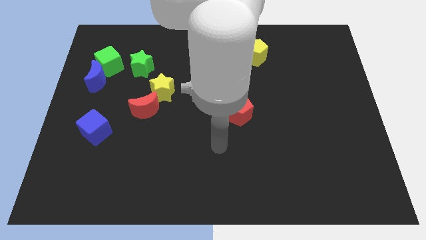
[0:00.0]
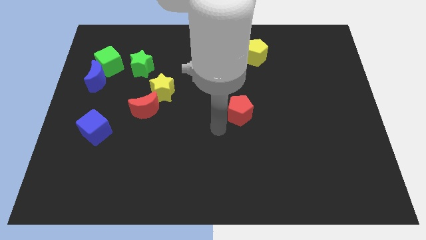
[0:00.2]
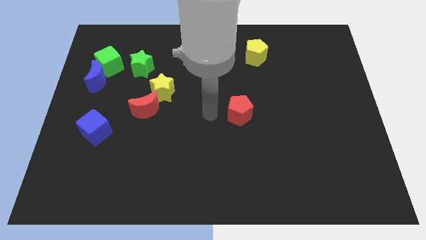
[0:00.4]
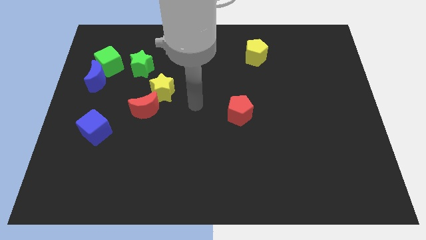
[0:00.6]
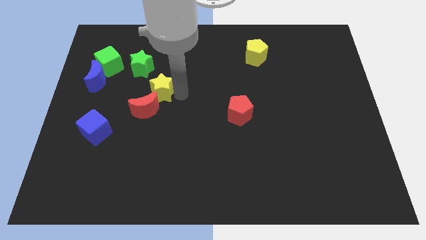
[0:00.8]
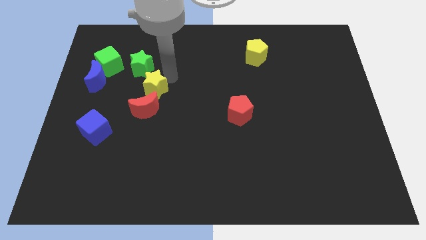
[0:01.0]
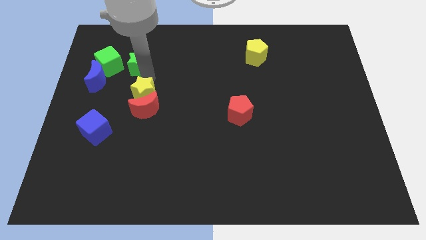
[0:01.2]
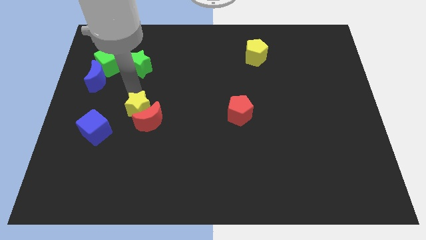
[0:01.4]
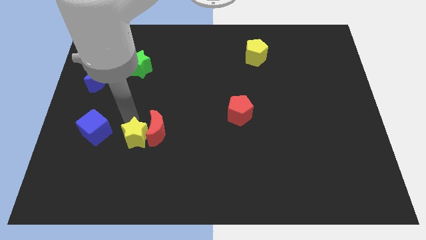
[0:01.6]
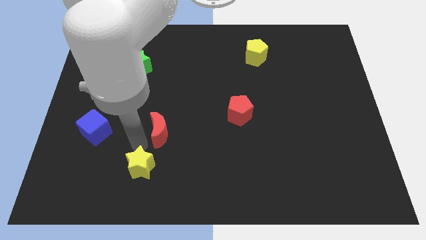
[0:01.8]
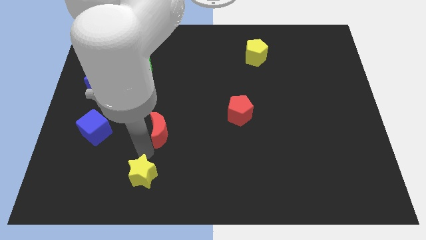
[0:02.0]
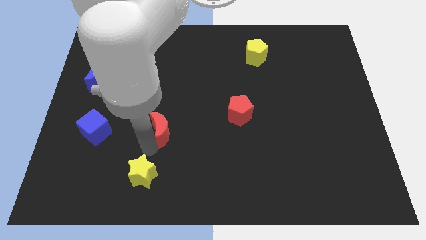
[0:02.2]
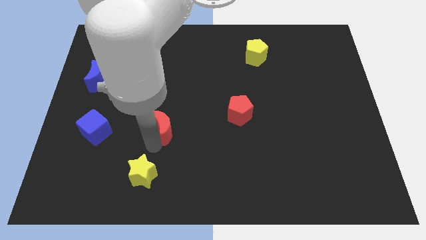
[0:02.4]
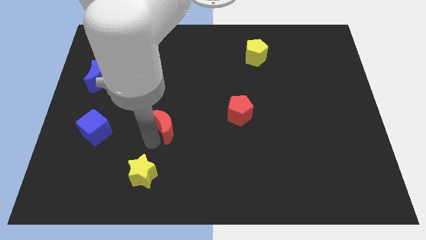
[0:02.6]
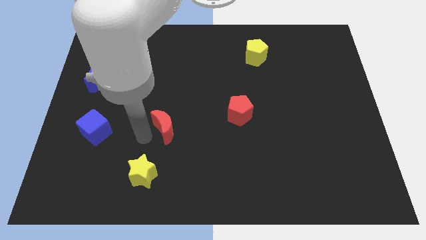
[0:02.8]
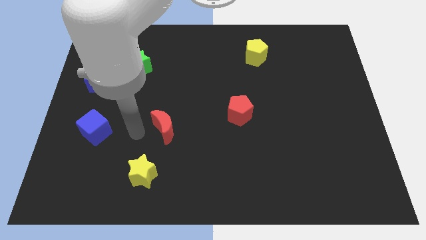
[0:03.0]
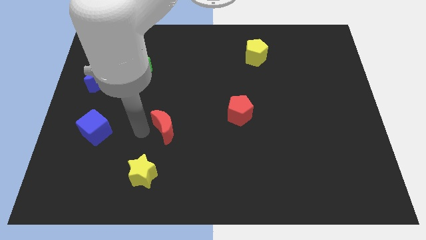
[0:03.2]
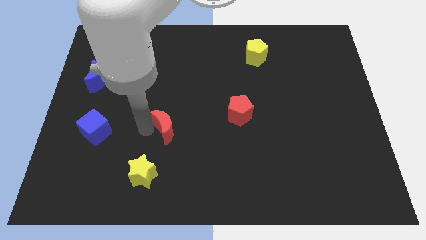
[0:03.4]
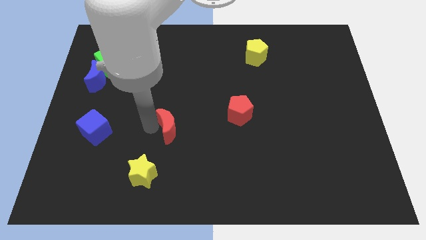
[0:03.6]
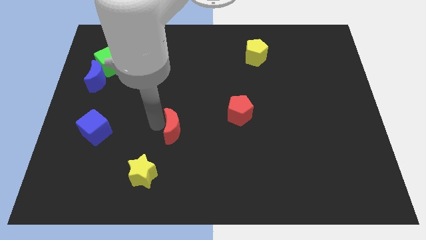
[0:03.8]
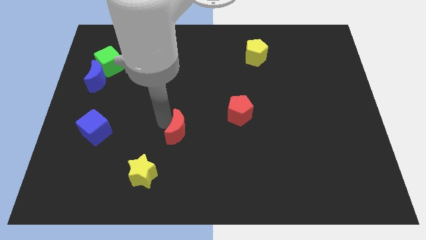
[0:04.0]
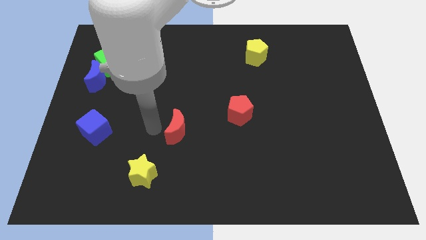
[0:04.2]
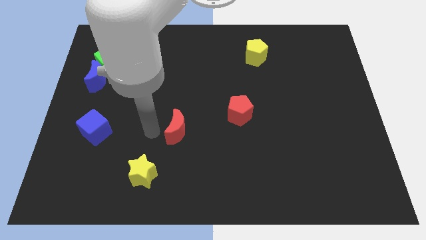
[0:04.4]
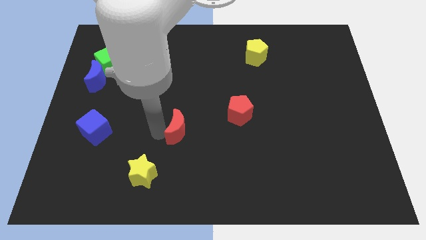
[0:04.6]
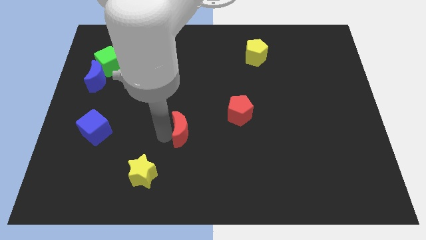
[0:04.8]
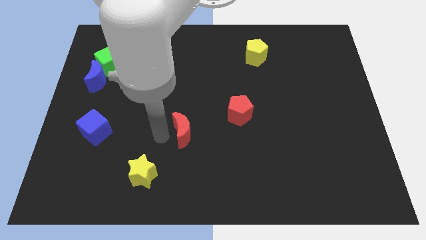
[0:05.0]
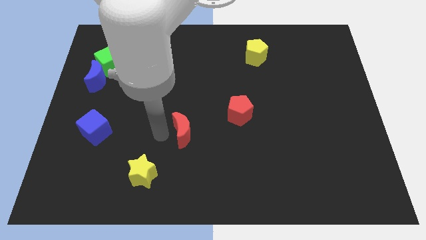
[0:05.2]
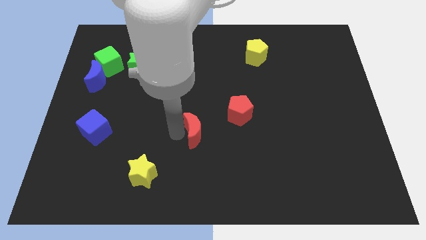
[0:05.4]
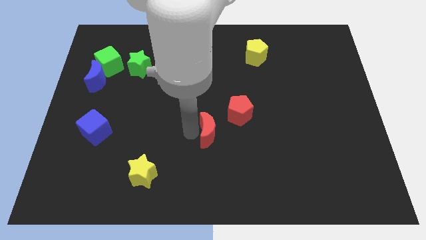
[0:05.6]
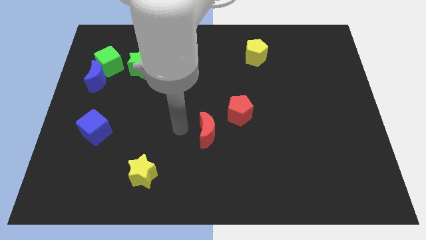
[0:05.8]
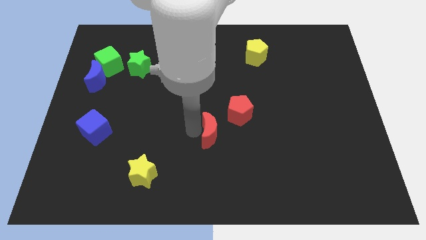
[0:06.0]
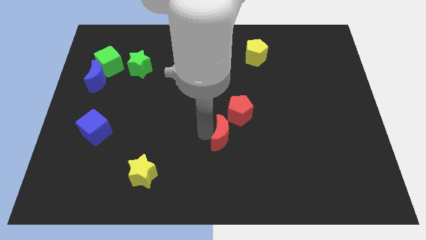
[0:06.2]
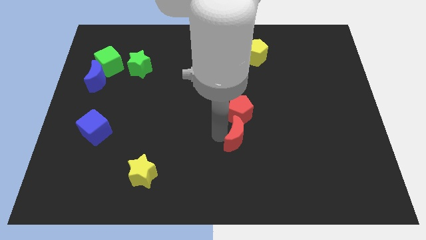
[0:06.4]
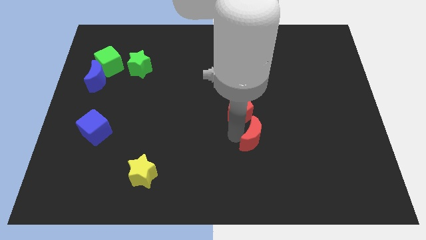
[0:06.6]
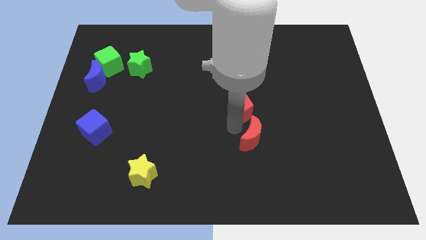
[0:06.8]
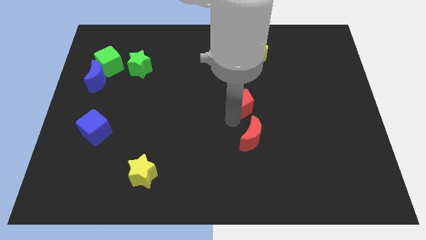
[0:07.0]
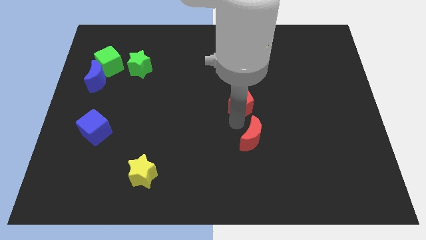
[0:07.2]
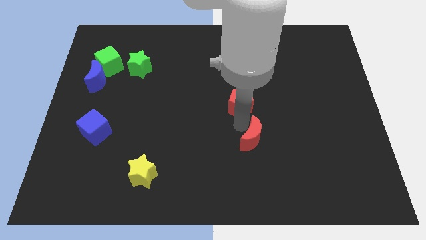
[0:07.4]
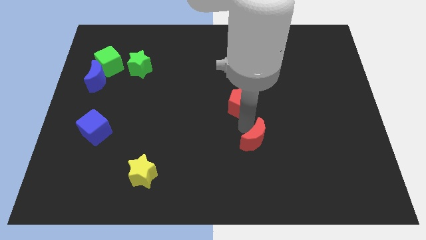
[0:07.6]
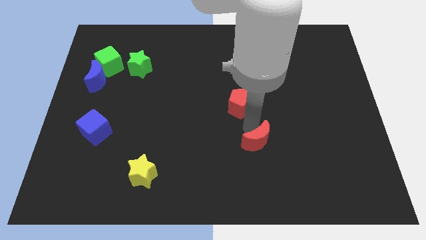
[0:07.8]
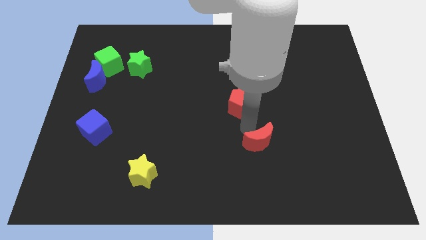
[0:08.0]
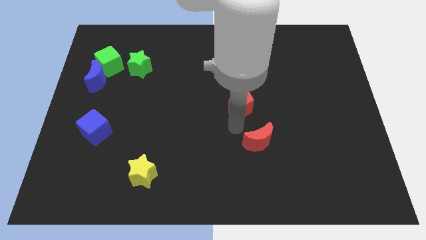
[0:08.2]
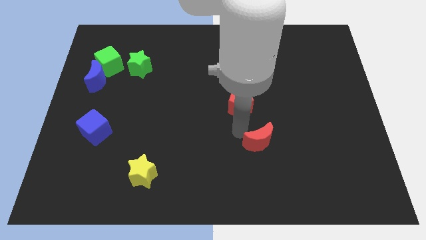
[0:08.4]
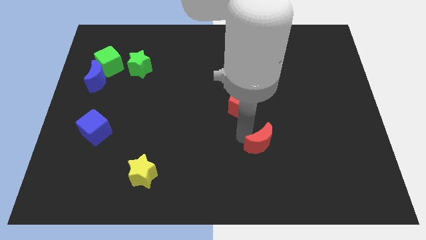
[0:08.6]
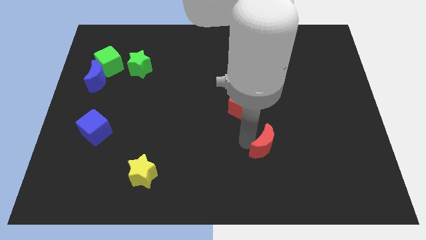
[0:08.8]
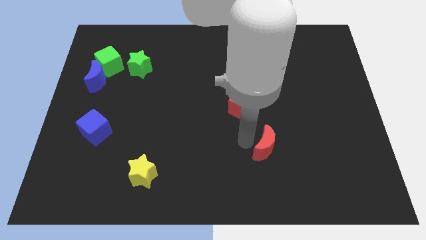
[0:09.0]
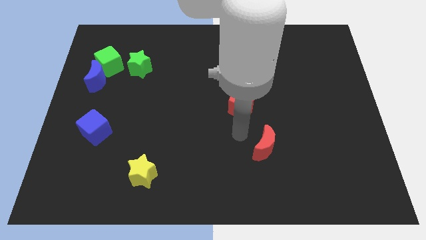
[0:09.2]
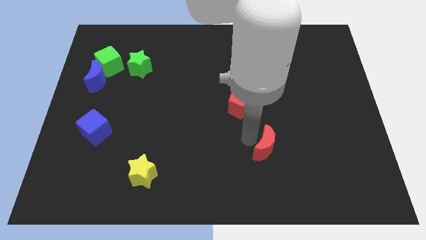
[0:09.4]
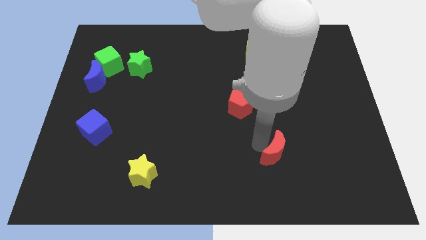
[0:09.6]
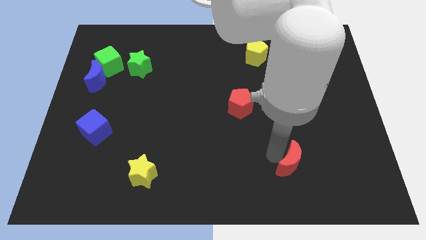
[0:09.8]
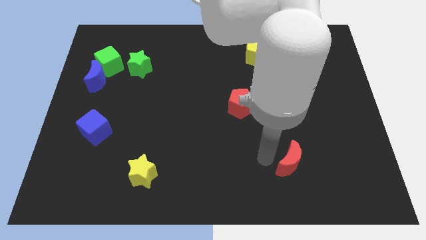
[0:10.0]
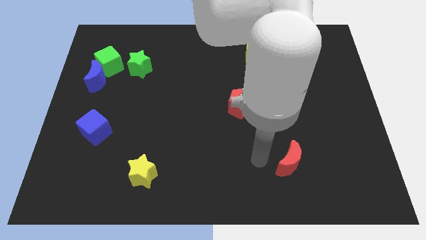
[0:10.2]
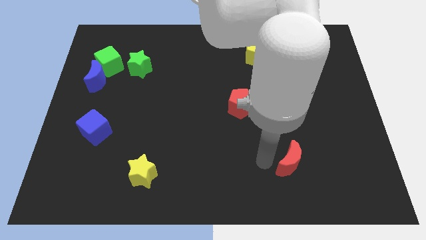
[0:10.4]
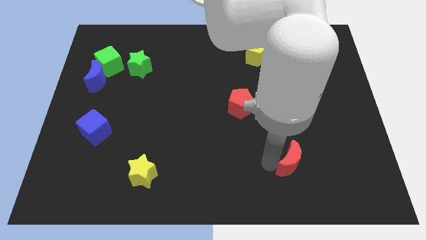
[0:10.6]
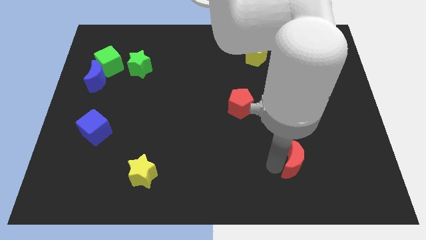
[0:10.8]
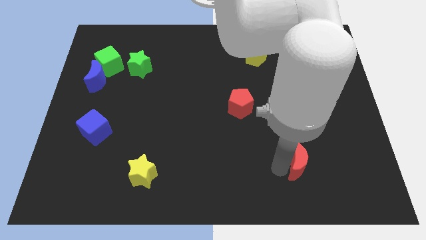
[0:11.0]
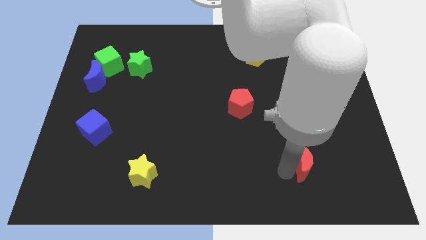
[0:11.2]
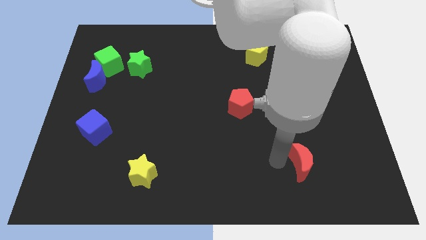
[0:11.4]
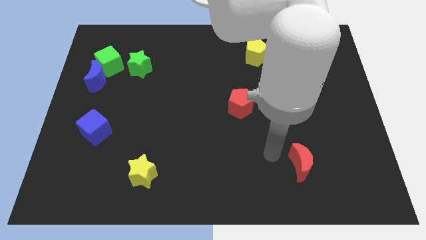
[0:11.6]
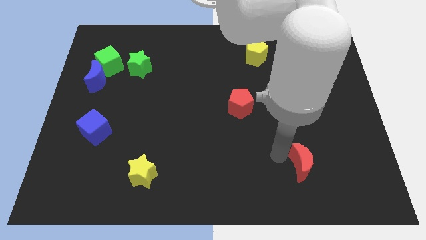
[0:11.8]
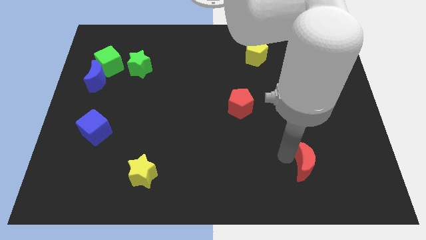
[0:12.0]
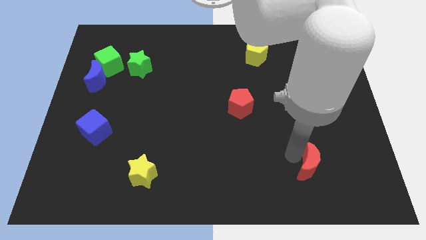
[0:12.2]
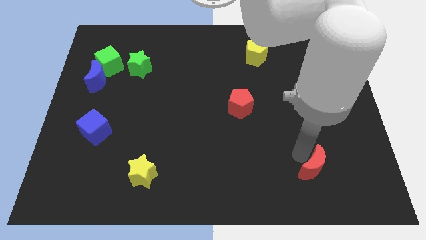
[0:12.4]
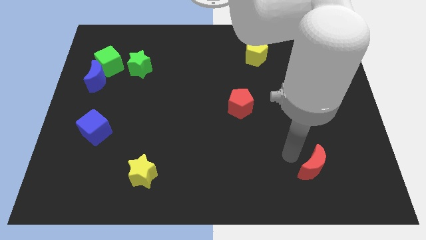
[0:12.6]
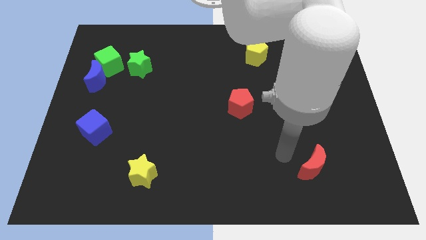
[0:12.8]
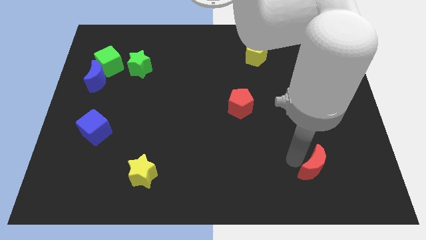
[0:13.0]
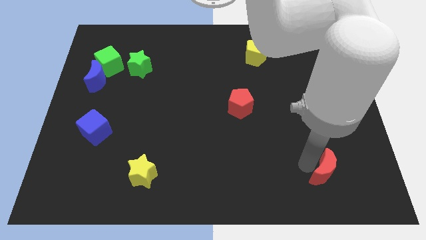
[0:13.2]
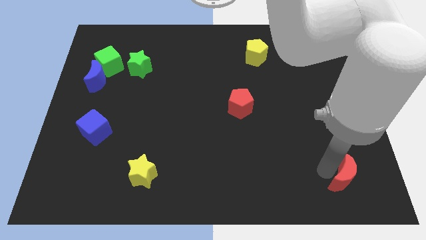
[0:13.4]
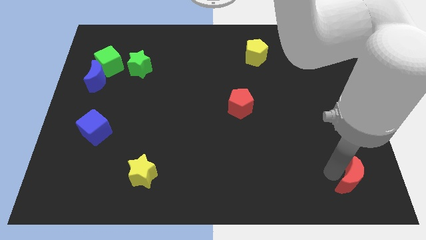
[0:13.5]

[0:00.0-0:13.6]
push the red moon to the bottom right of the board
